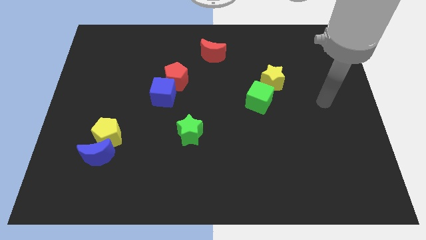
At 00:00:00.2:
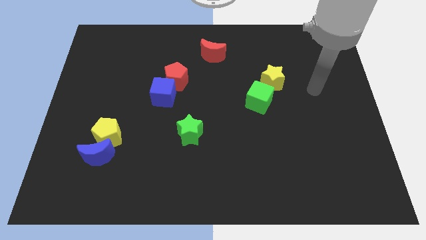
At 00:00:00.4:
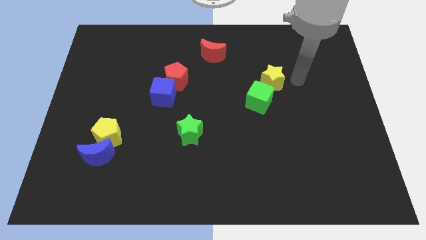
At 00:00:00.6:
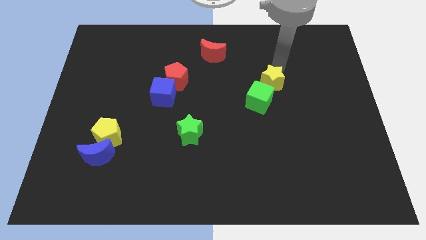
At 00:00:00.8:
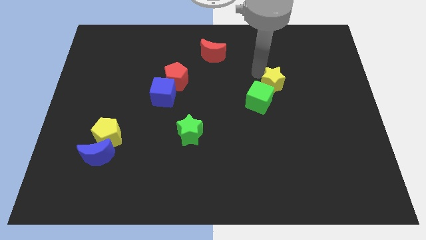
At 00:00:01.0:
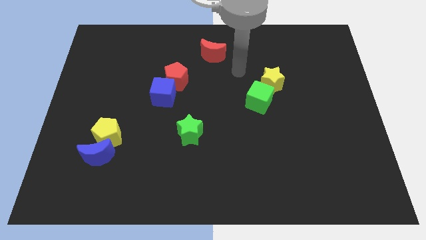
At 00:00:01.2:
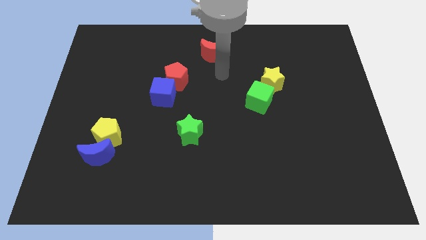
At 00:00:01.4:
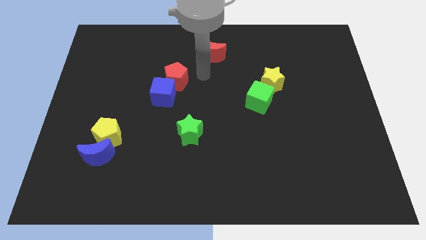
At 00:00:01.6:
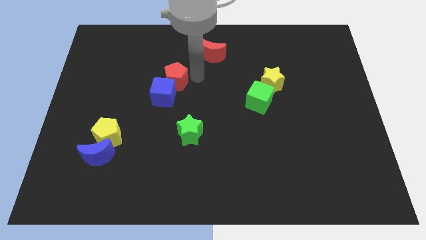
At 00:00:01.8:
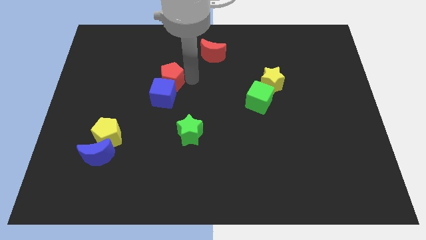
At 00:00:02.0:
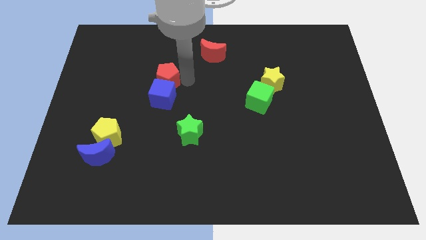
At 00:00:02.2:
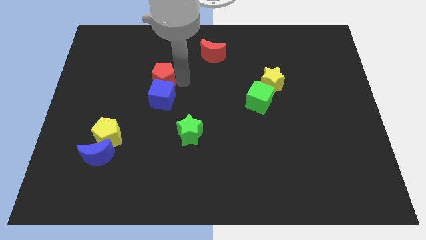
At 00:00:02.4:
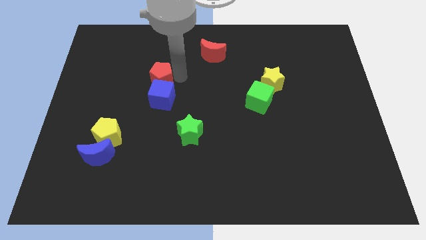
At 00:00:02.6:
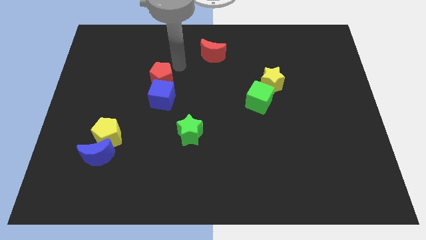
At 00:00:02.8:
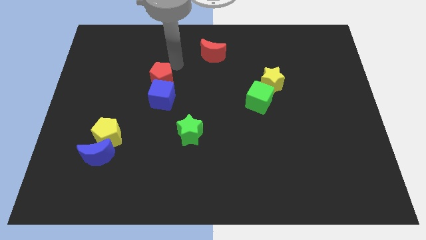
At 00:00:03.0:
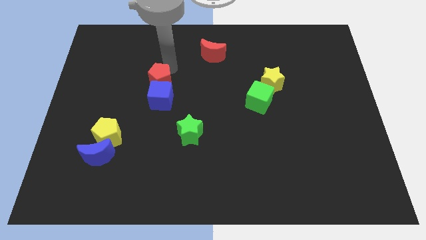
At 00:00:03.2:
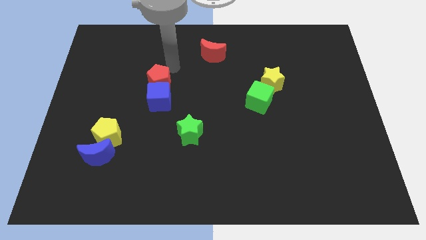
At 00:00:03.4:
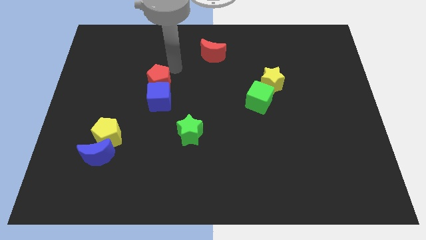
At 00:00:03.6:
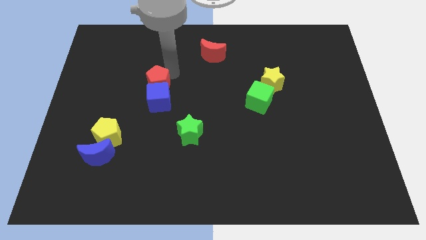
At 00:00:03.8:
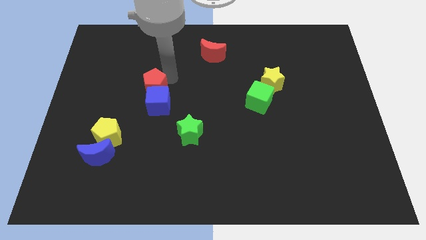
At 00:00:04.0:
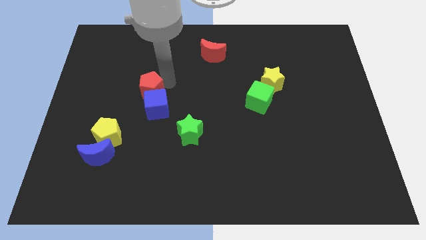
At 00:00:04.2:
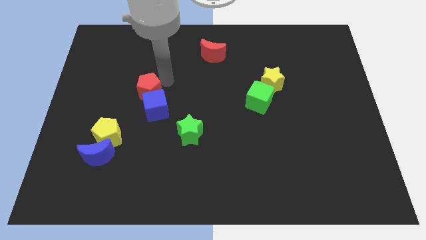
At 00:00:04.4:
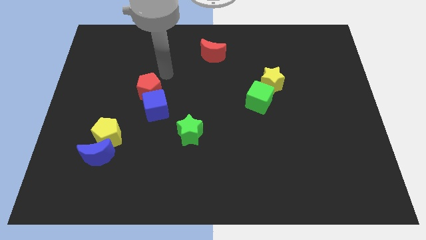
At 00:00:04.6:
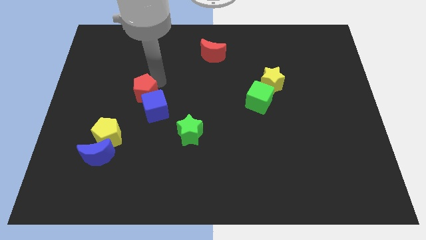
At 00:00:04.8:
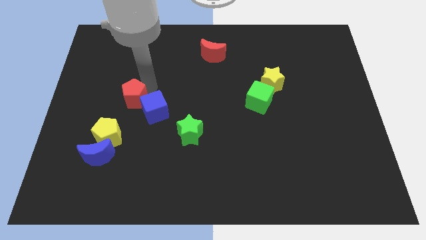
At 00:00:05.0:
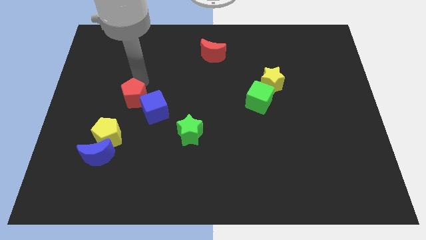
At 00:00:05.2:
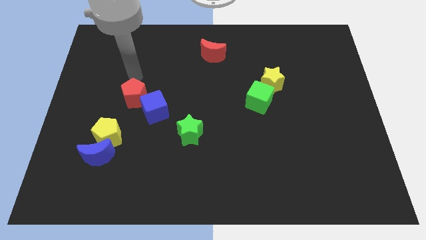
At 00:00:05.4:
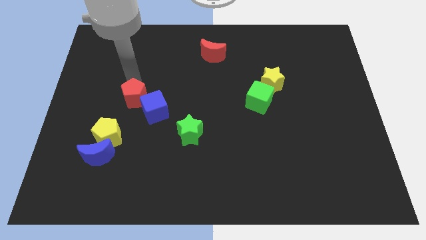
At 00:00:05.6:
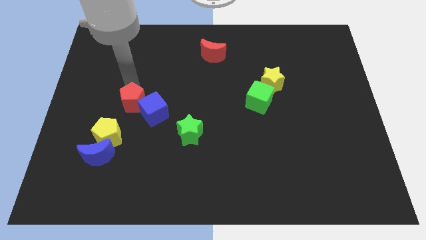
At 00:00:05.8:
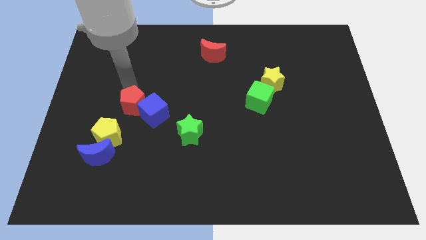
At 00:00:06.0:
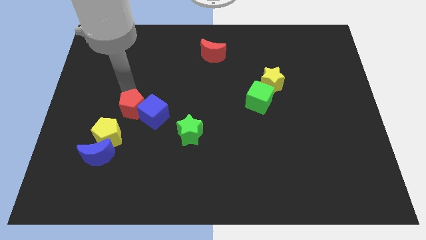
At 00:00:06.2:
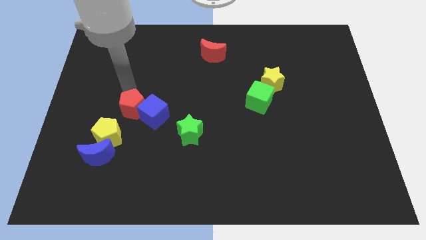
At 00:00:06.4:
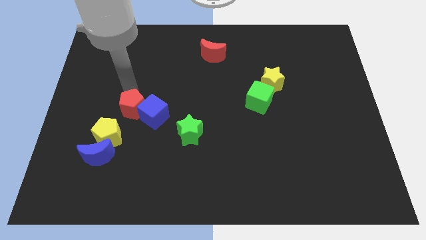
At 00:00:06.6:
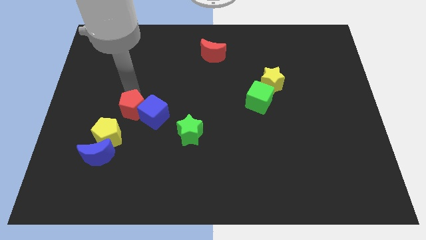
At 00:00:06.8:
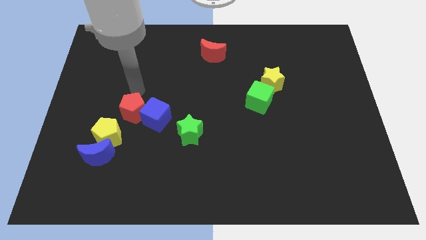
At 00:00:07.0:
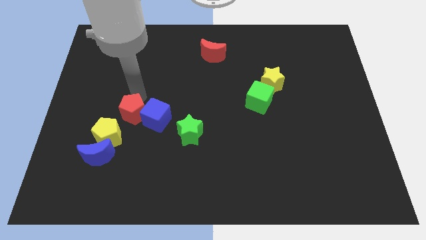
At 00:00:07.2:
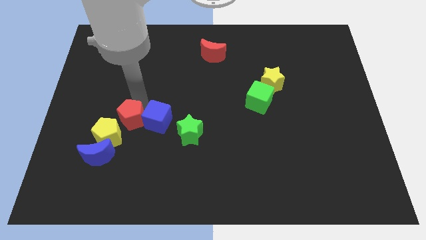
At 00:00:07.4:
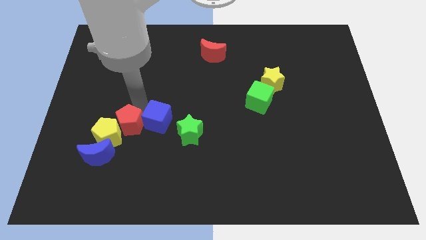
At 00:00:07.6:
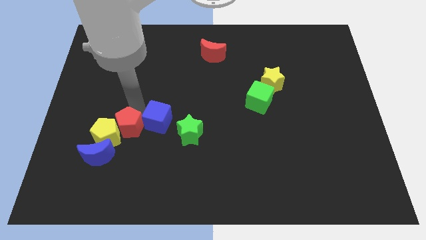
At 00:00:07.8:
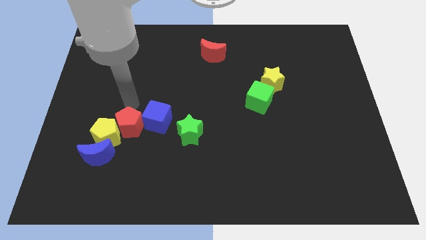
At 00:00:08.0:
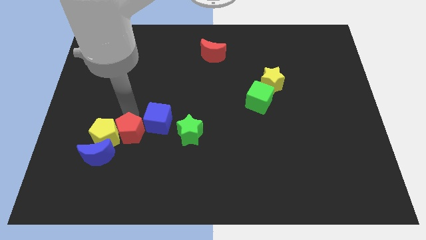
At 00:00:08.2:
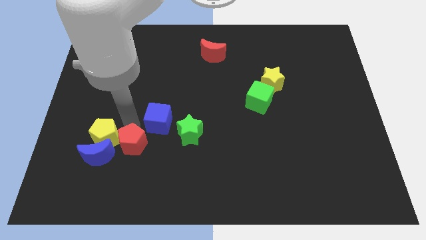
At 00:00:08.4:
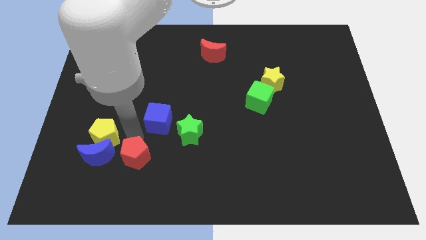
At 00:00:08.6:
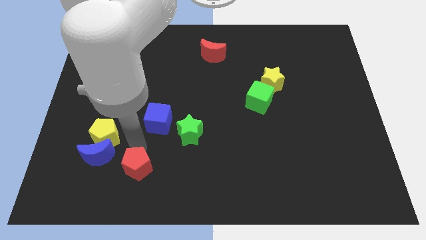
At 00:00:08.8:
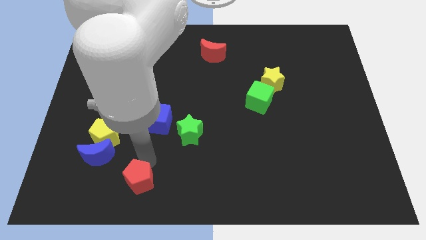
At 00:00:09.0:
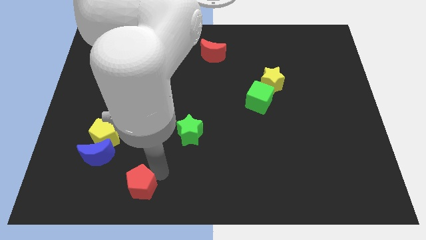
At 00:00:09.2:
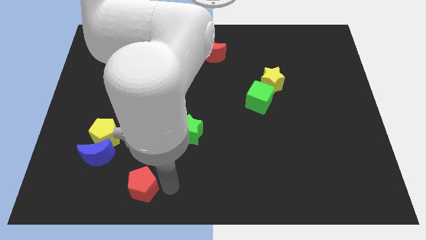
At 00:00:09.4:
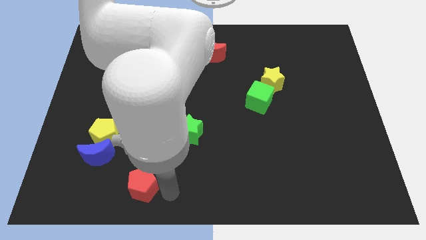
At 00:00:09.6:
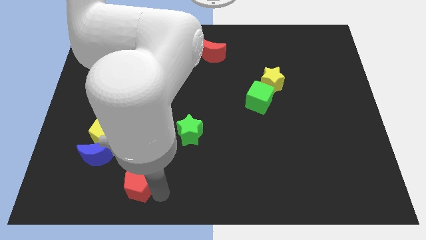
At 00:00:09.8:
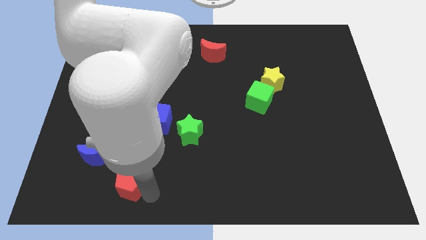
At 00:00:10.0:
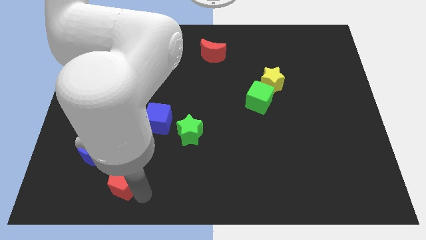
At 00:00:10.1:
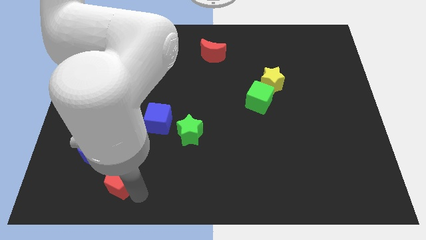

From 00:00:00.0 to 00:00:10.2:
push the red pentagon to the bottom side of the yellow pentagon

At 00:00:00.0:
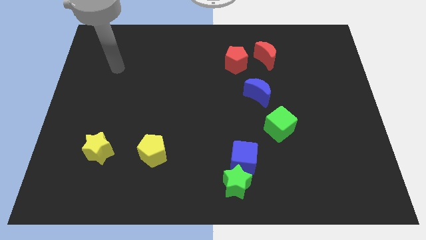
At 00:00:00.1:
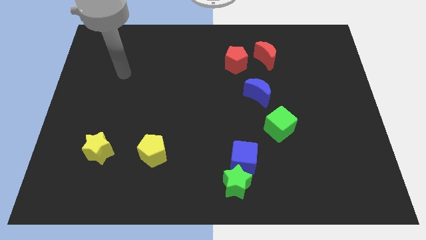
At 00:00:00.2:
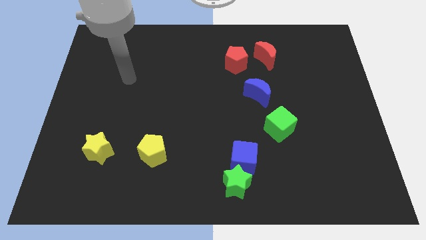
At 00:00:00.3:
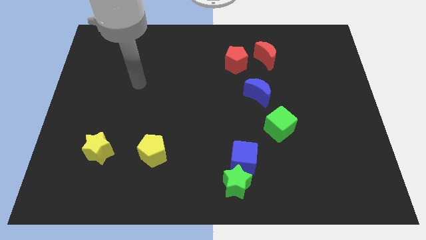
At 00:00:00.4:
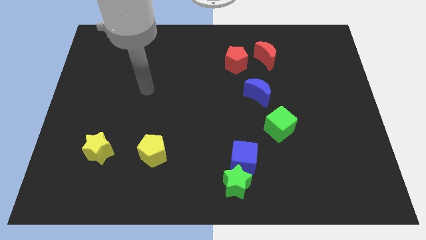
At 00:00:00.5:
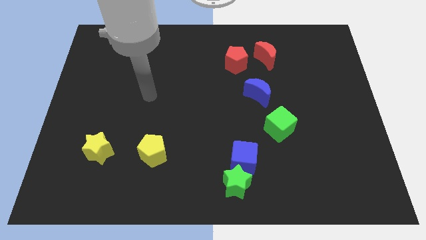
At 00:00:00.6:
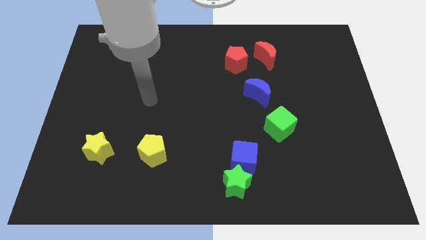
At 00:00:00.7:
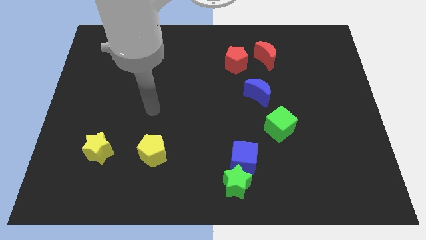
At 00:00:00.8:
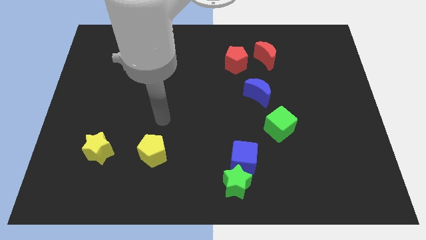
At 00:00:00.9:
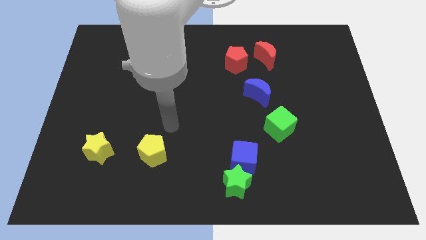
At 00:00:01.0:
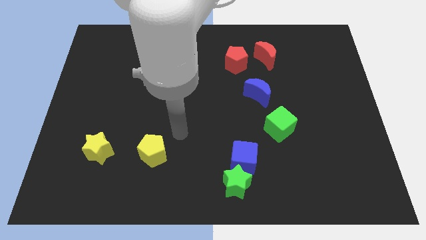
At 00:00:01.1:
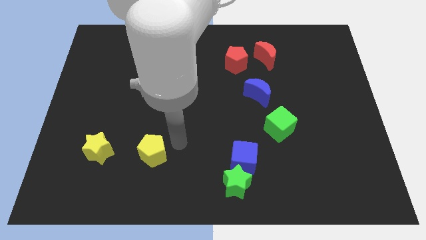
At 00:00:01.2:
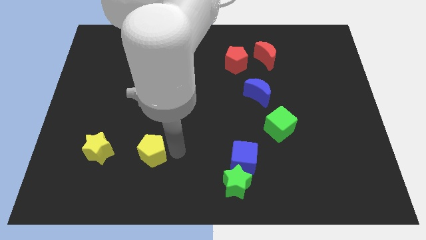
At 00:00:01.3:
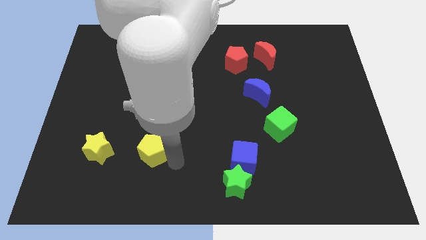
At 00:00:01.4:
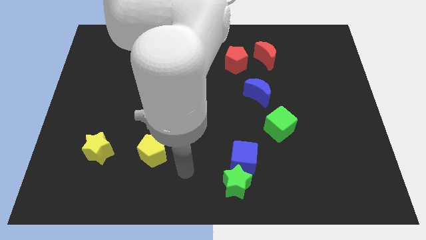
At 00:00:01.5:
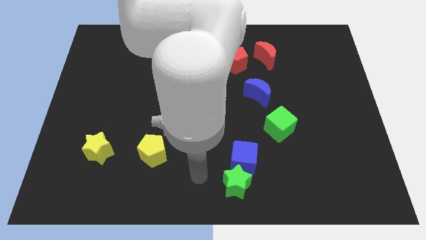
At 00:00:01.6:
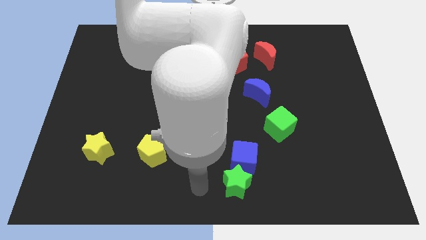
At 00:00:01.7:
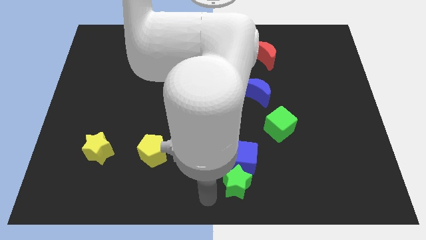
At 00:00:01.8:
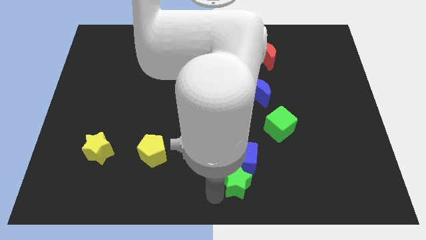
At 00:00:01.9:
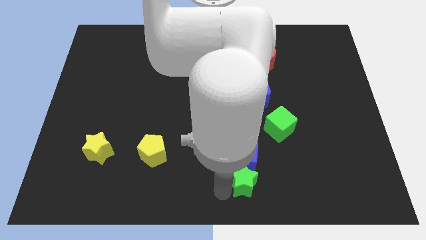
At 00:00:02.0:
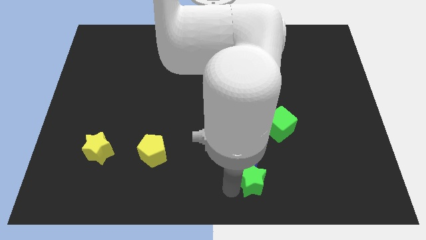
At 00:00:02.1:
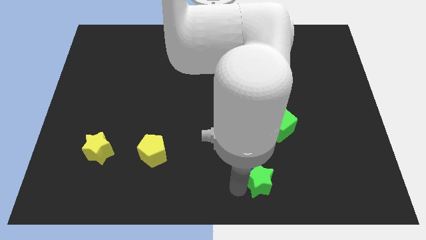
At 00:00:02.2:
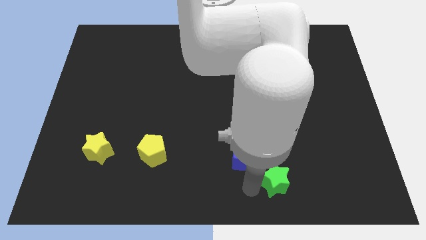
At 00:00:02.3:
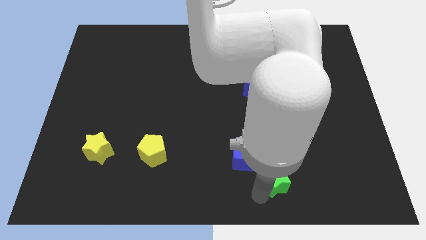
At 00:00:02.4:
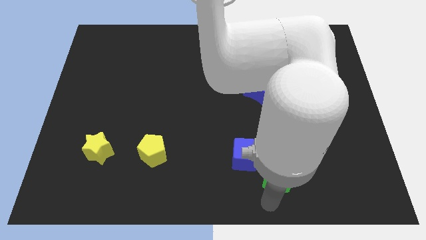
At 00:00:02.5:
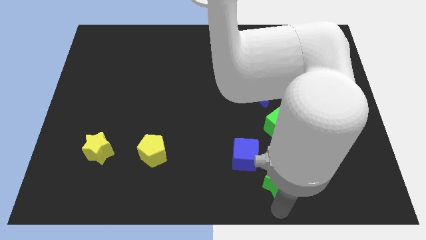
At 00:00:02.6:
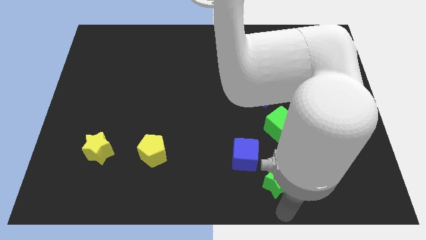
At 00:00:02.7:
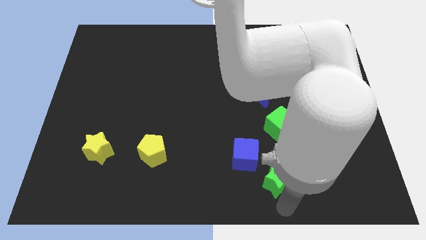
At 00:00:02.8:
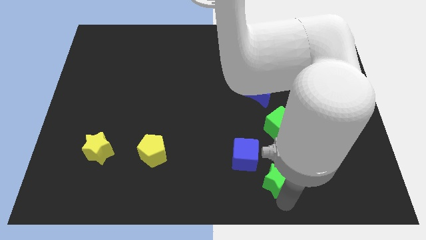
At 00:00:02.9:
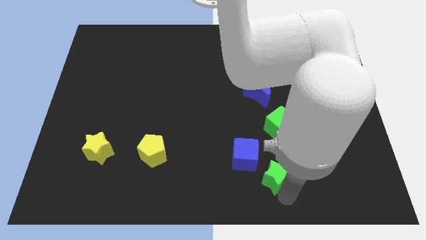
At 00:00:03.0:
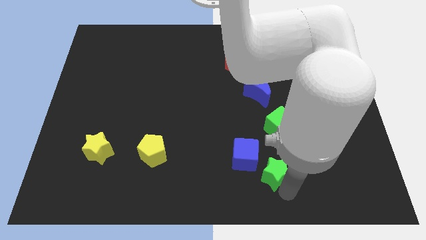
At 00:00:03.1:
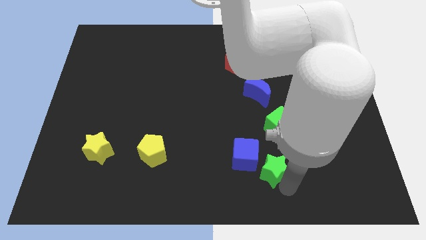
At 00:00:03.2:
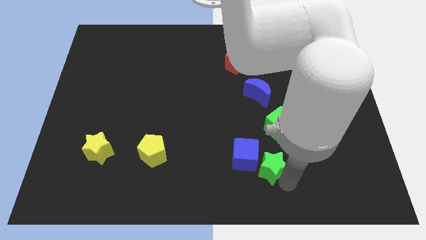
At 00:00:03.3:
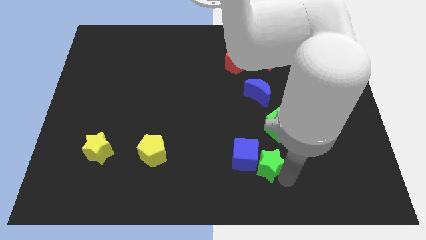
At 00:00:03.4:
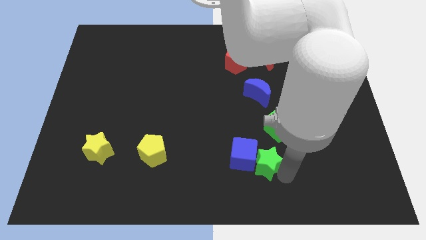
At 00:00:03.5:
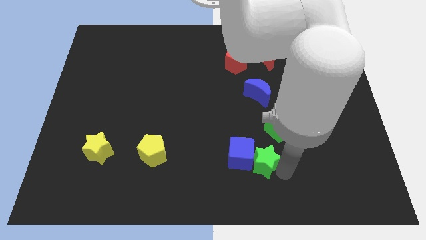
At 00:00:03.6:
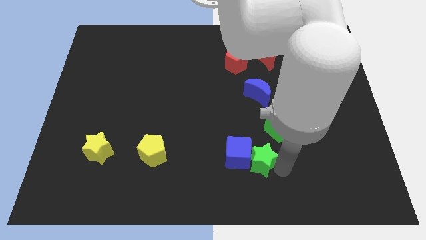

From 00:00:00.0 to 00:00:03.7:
push the green star to the top right of the blue cube
